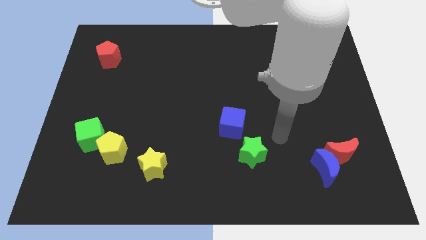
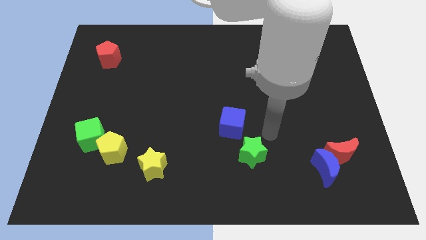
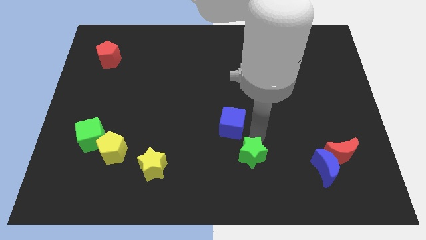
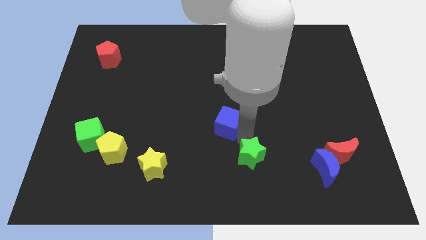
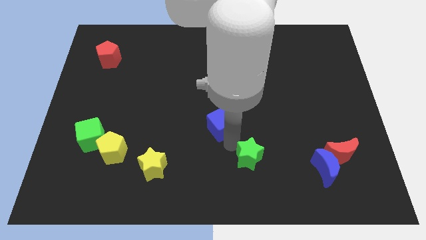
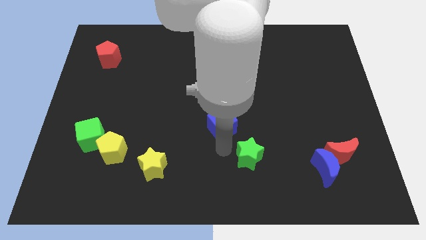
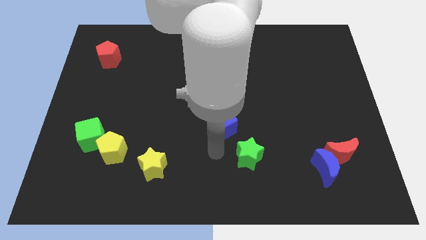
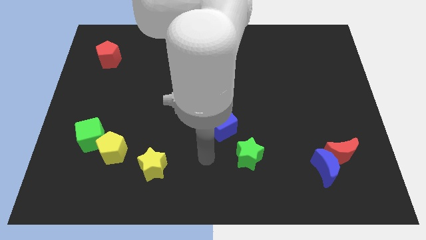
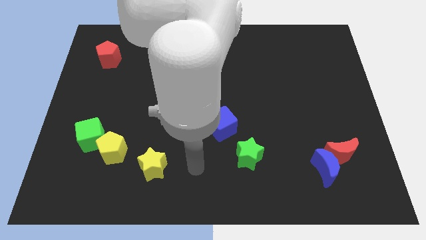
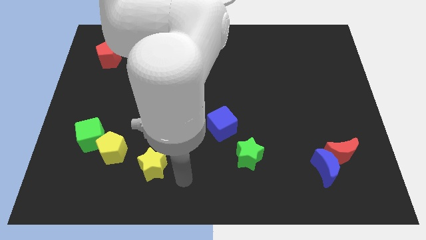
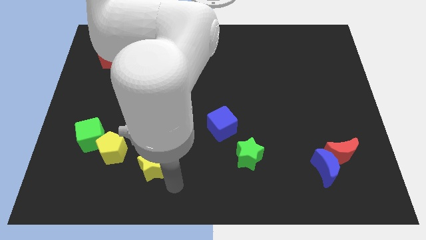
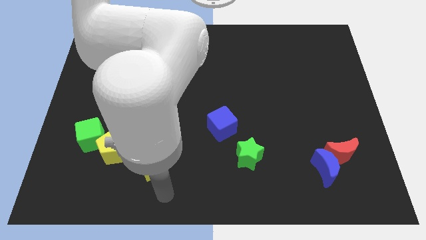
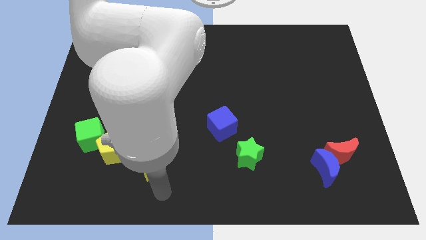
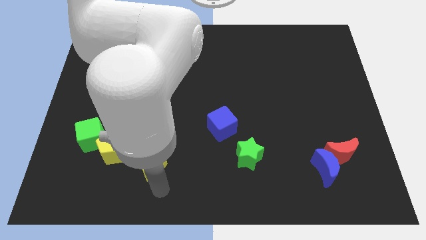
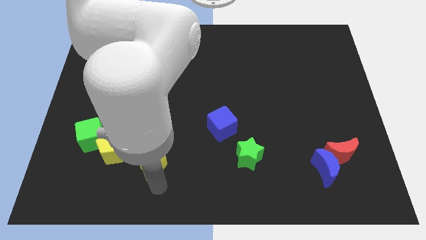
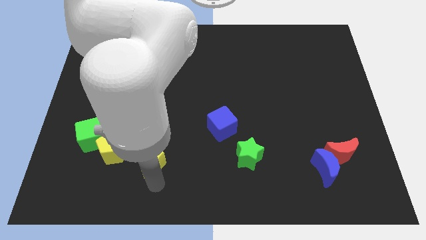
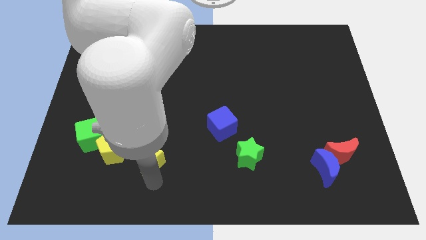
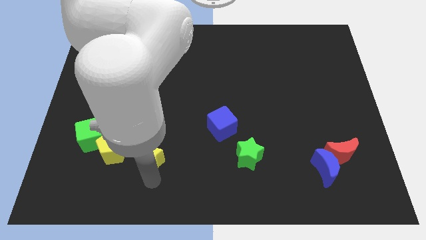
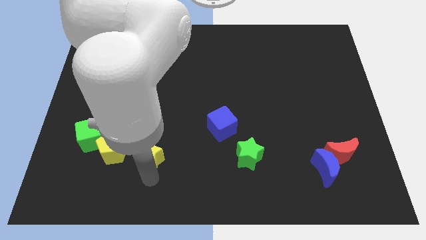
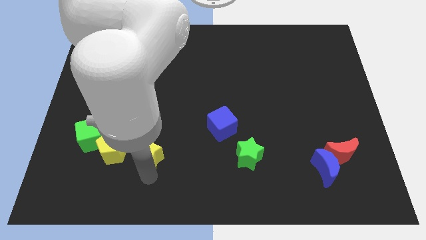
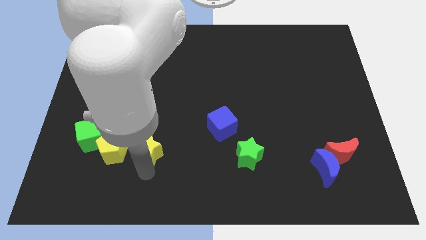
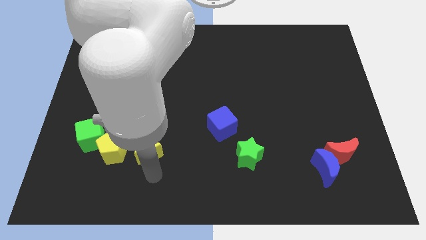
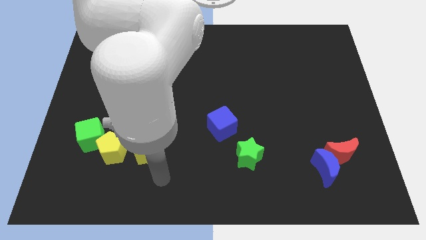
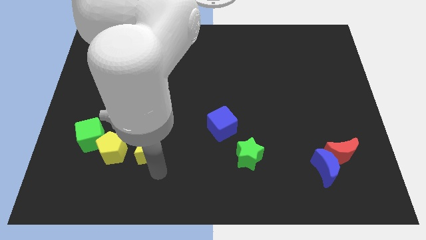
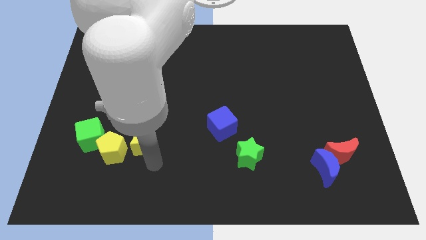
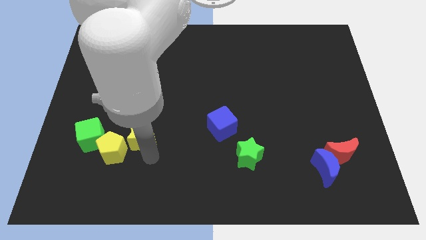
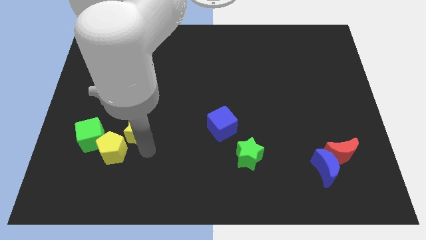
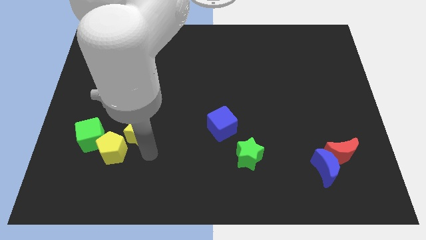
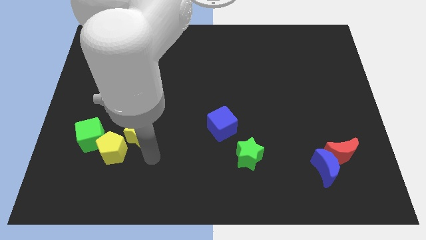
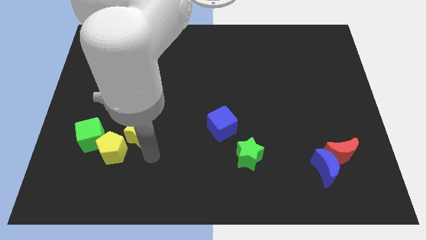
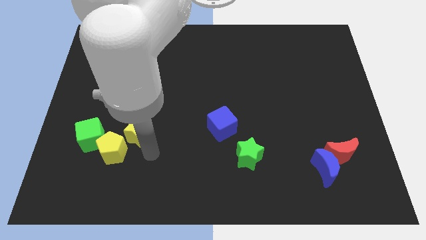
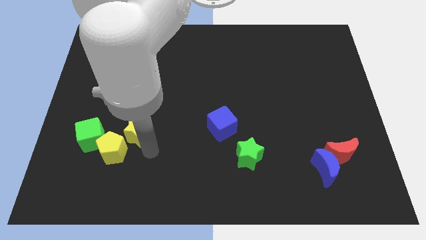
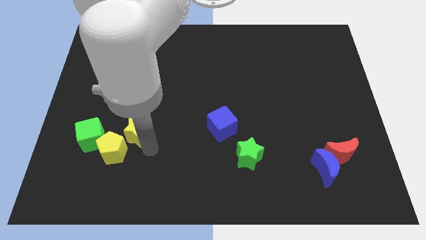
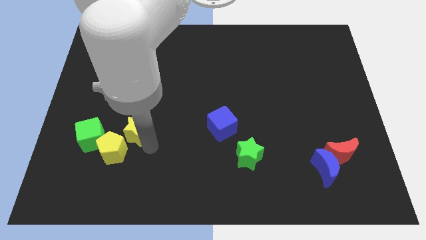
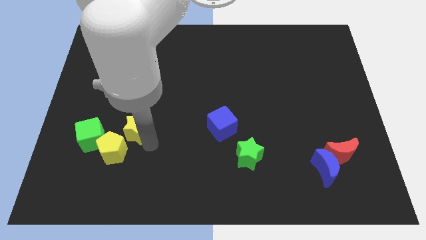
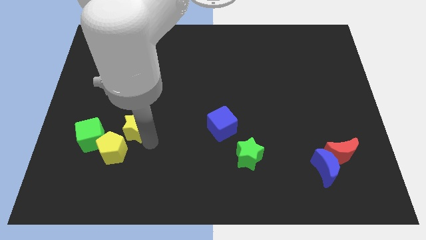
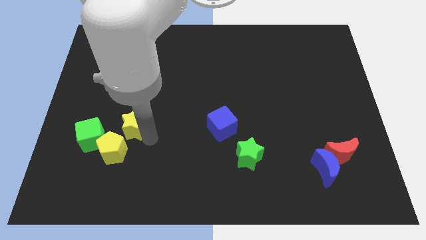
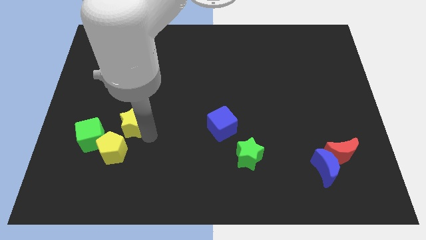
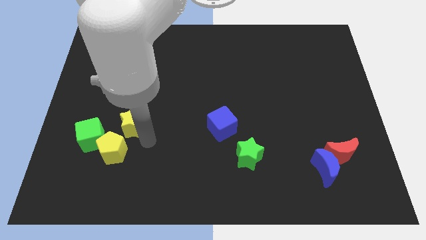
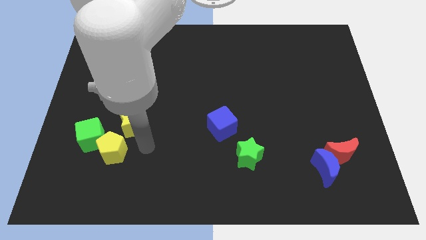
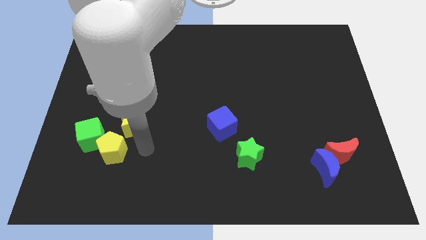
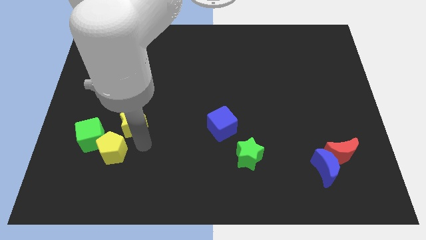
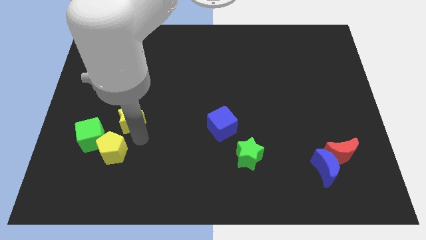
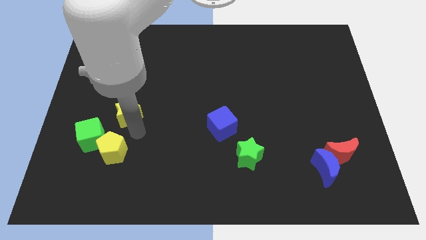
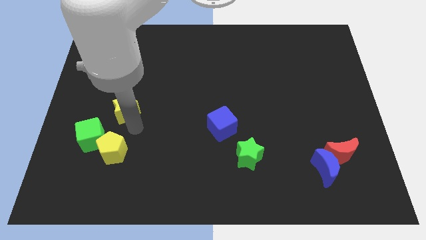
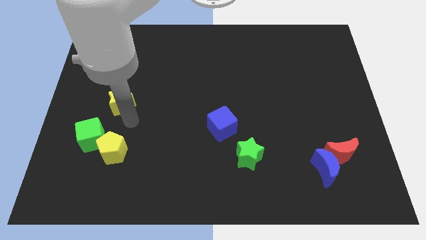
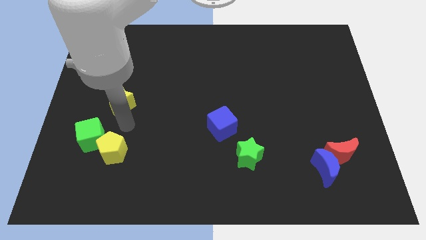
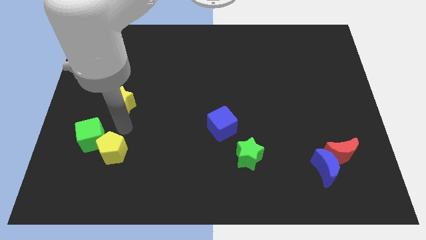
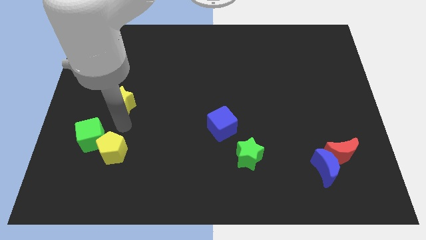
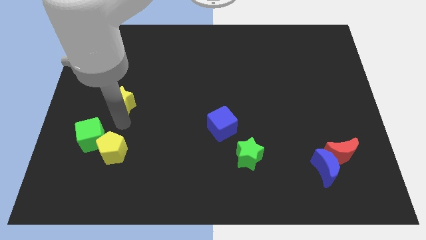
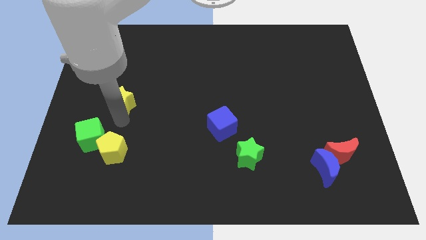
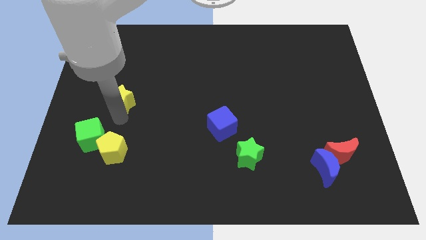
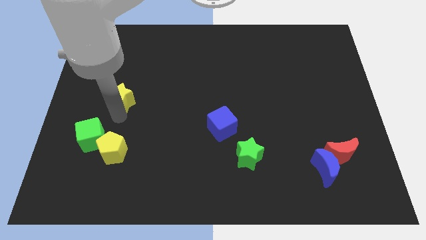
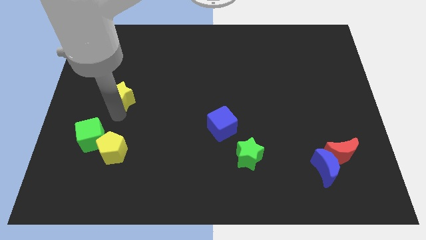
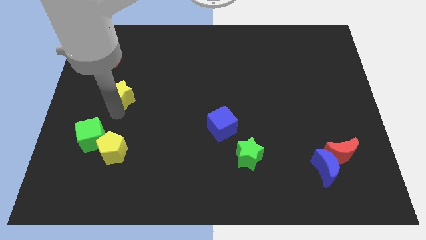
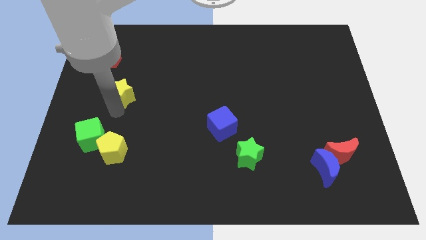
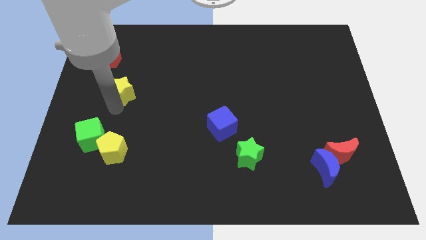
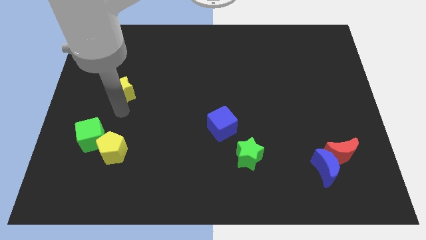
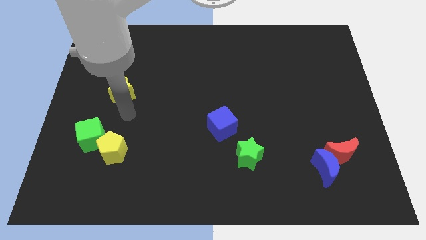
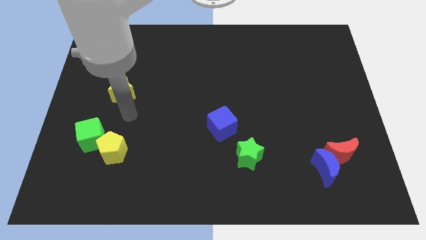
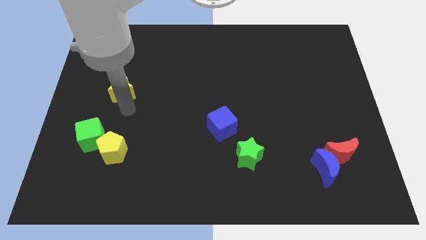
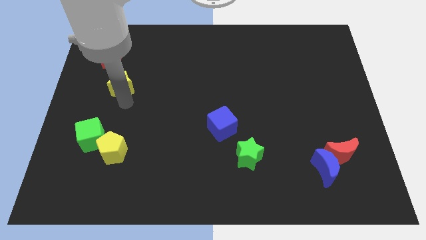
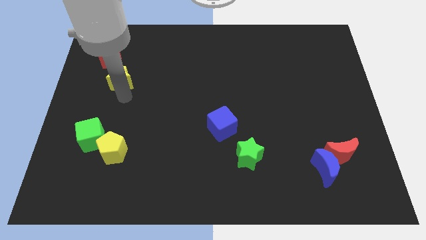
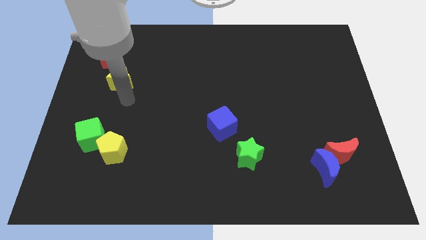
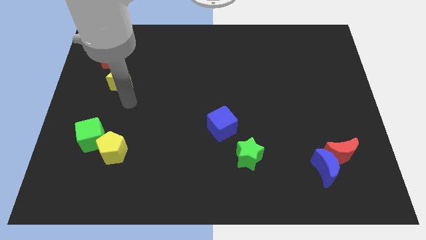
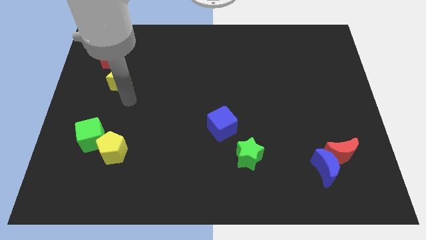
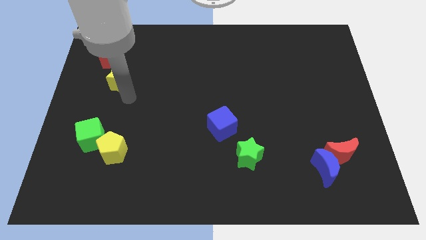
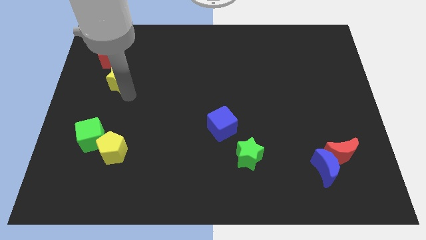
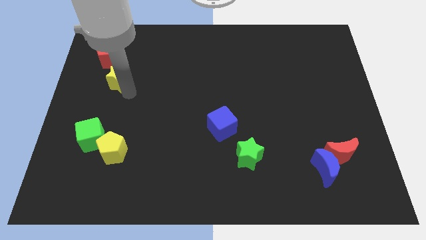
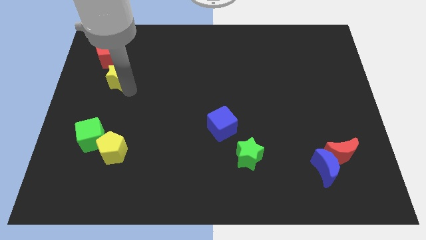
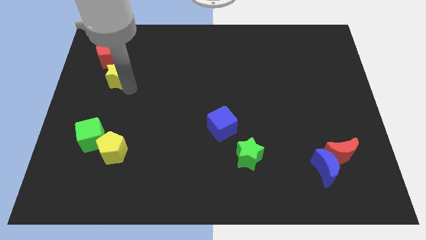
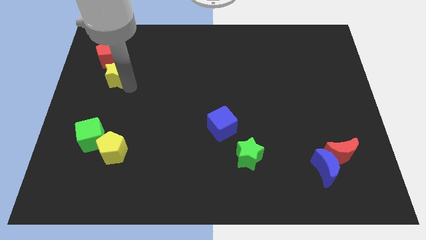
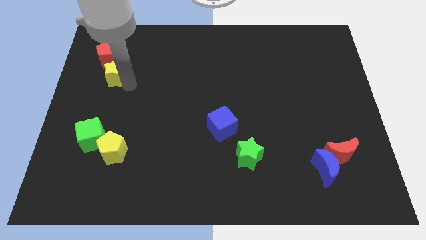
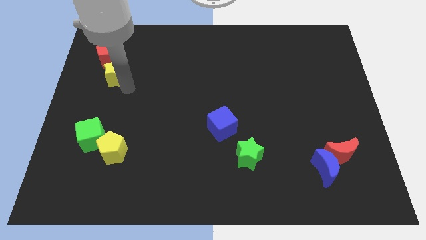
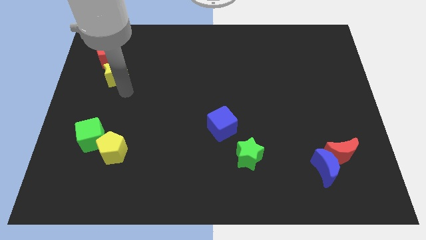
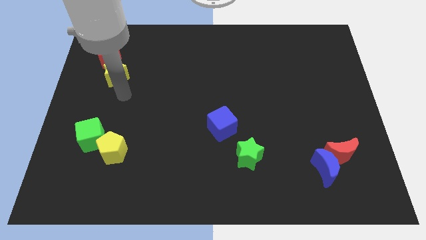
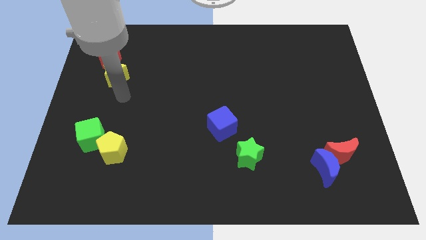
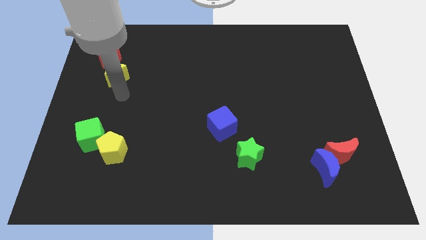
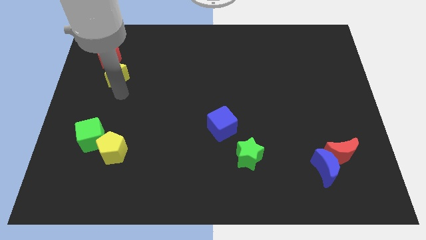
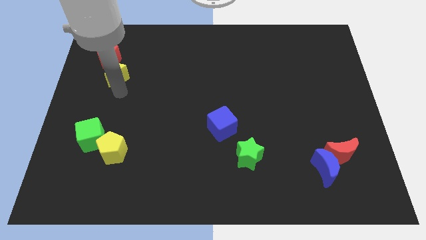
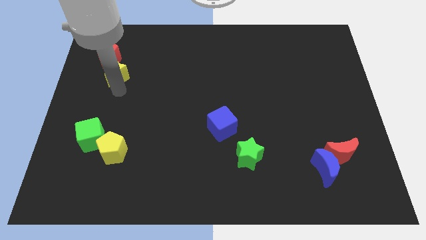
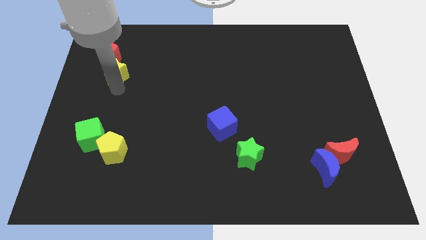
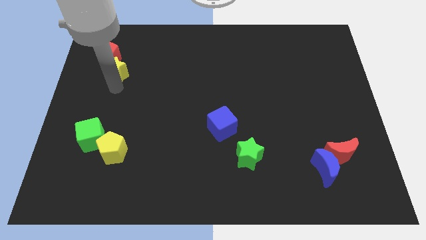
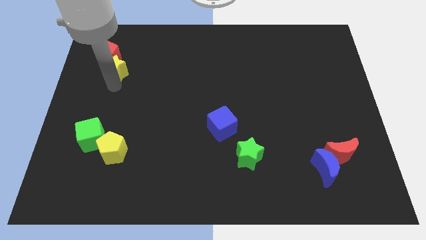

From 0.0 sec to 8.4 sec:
move the yellow star next to the red pentagon
